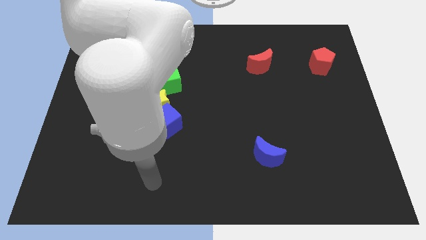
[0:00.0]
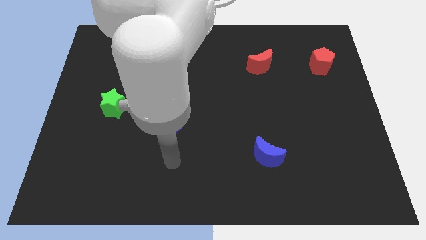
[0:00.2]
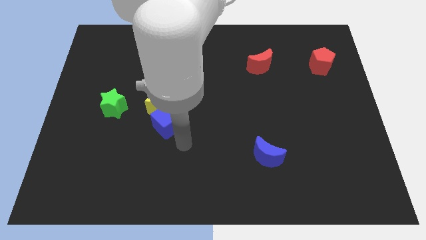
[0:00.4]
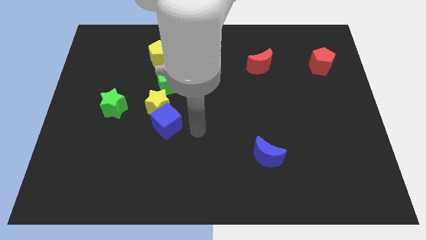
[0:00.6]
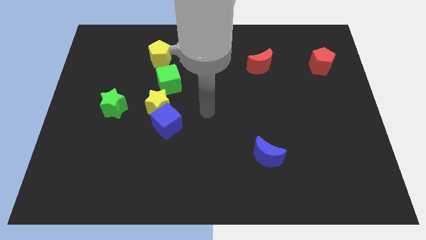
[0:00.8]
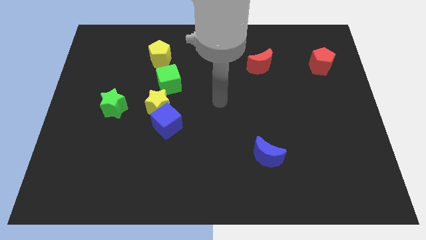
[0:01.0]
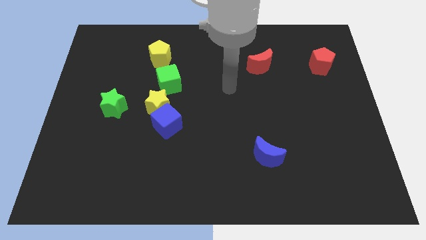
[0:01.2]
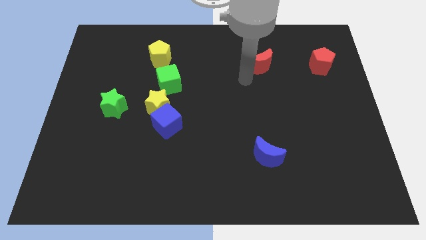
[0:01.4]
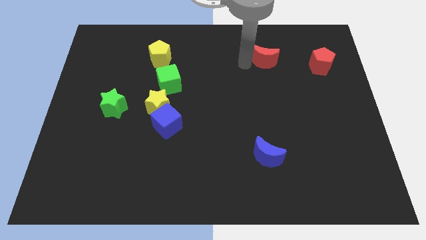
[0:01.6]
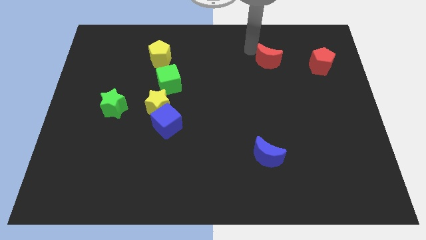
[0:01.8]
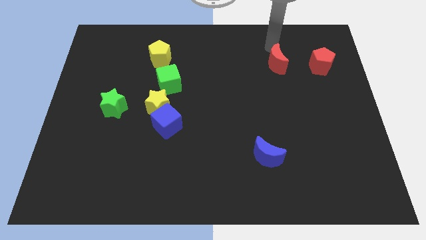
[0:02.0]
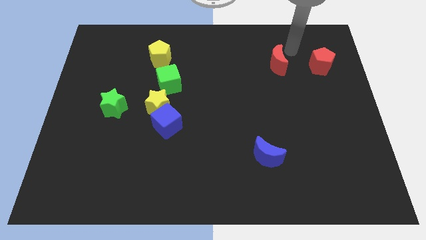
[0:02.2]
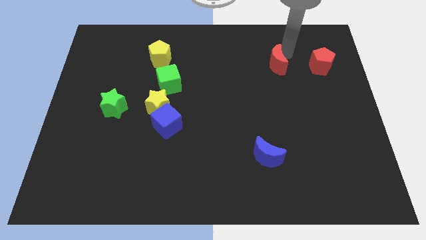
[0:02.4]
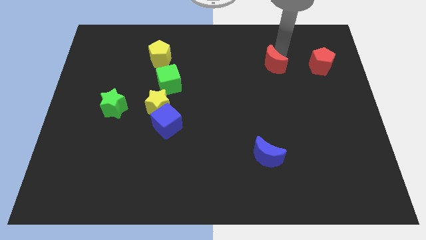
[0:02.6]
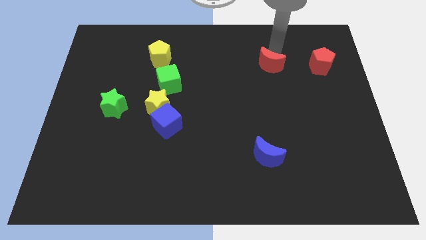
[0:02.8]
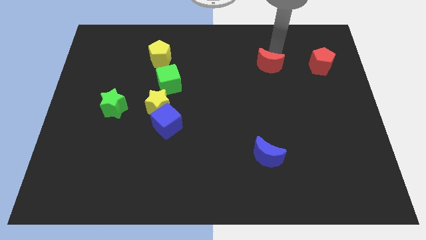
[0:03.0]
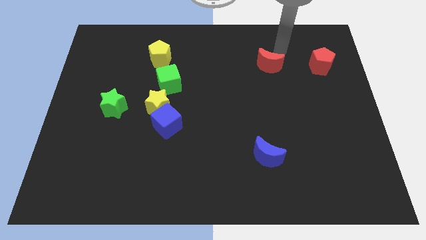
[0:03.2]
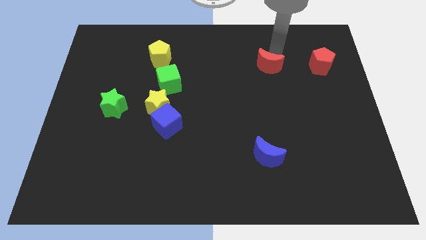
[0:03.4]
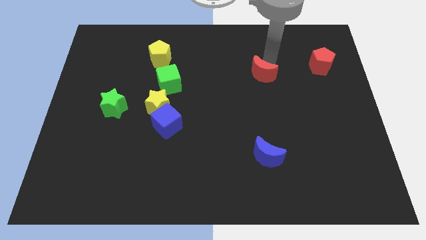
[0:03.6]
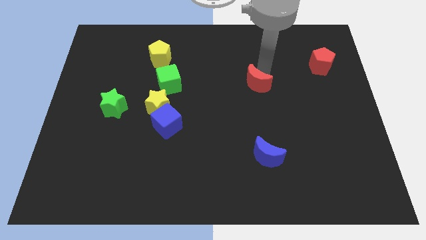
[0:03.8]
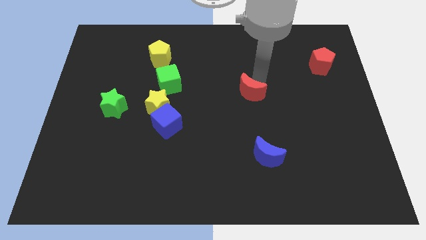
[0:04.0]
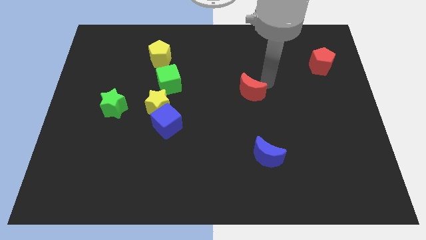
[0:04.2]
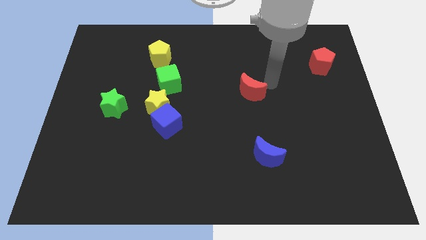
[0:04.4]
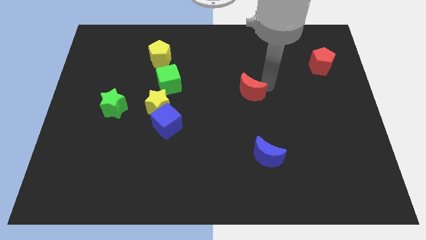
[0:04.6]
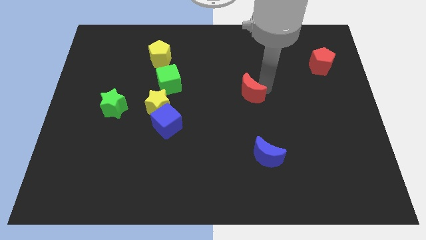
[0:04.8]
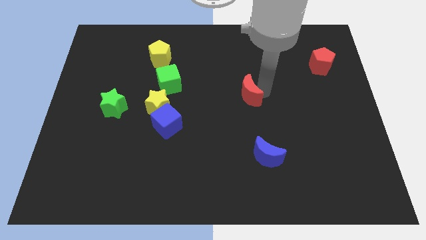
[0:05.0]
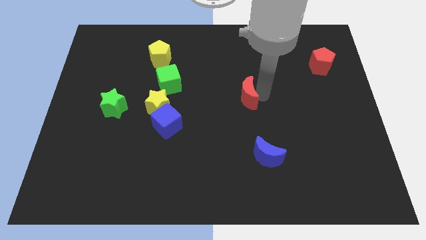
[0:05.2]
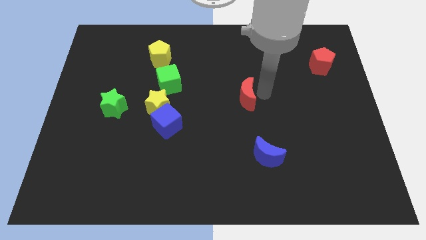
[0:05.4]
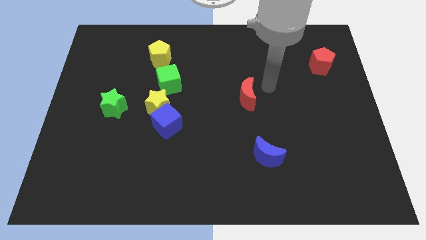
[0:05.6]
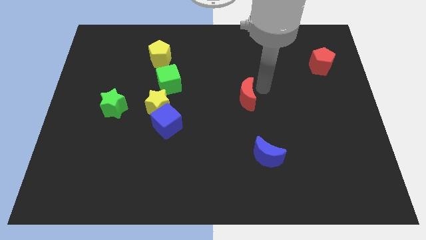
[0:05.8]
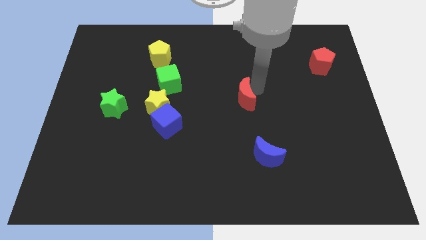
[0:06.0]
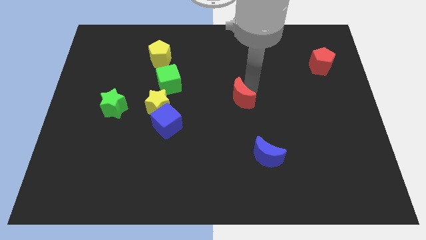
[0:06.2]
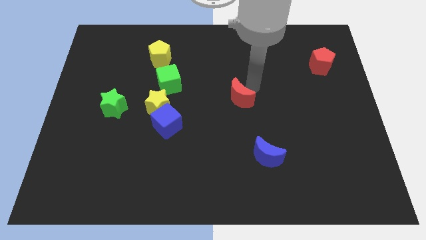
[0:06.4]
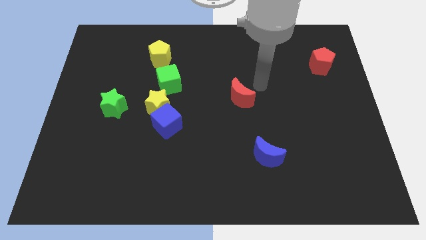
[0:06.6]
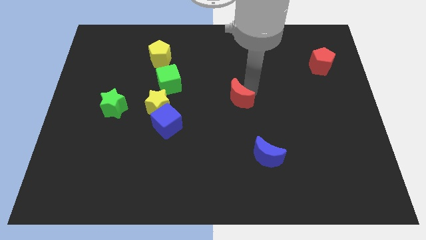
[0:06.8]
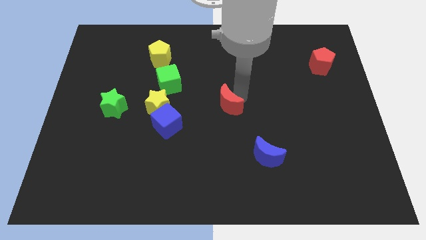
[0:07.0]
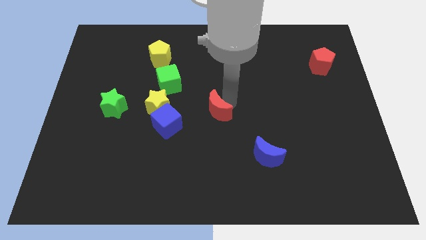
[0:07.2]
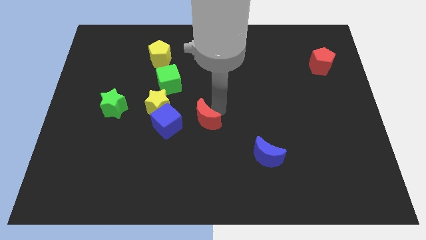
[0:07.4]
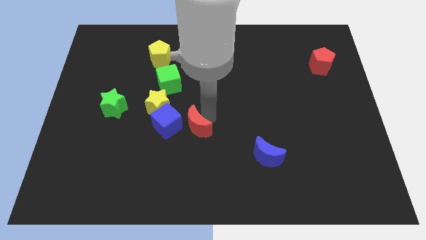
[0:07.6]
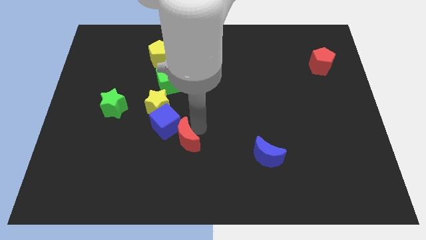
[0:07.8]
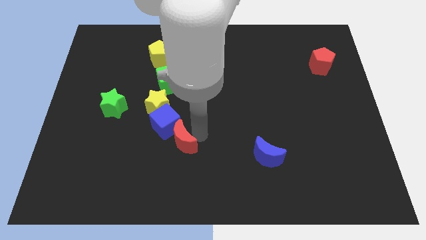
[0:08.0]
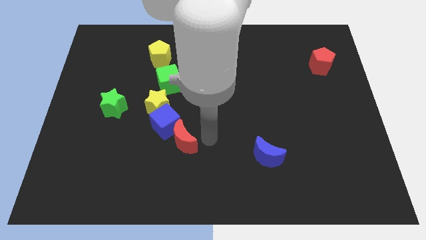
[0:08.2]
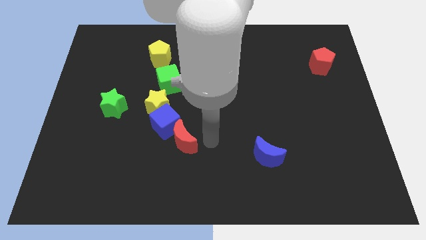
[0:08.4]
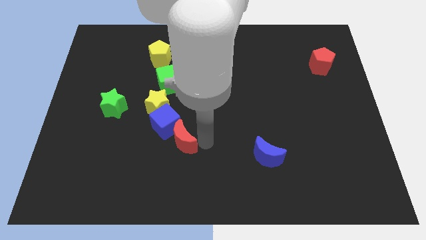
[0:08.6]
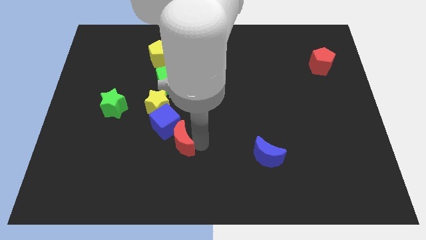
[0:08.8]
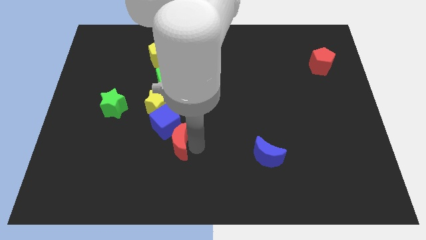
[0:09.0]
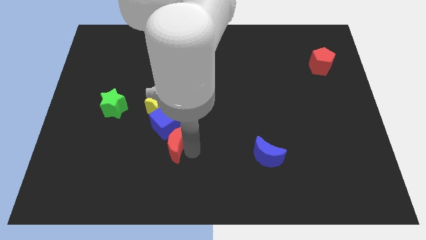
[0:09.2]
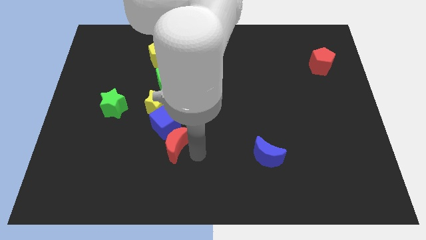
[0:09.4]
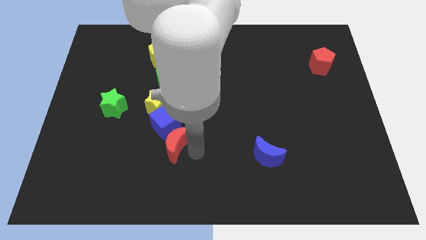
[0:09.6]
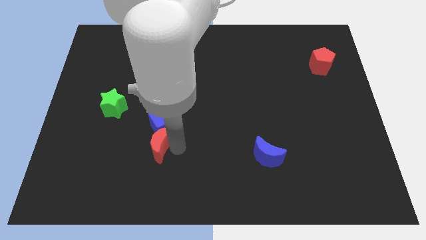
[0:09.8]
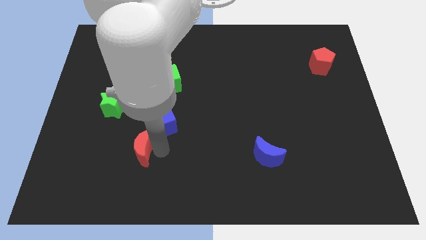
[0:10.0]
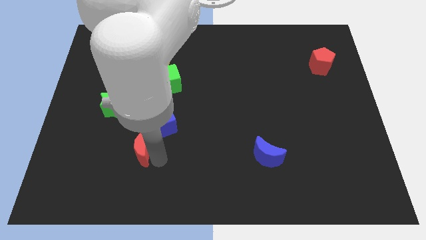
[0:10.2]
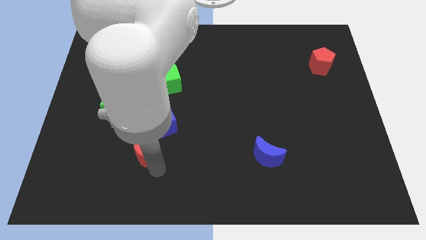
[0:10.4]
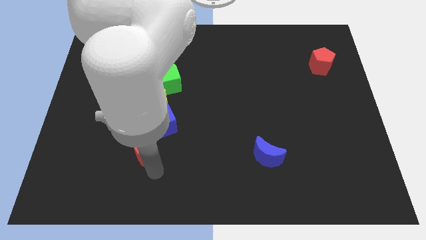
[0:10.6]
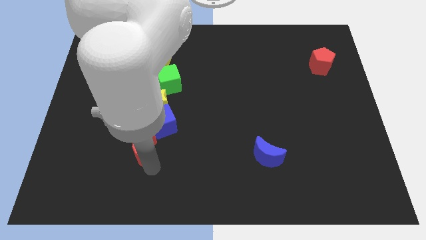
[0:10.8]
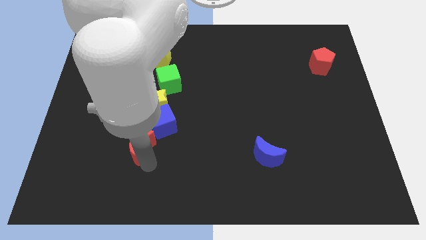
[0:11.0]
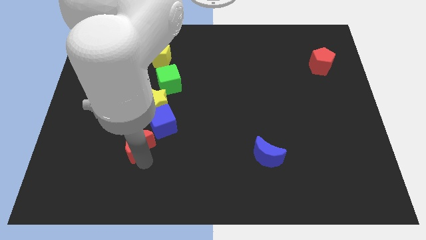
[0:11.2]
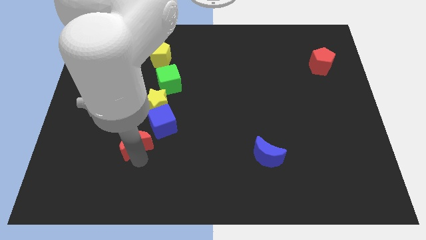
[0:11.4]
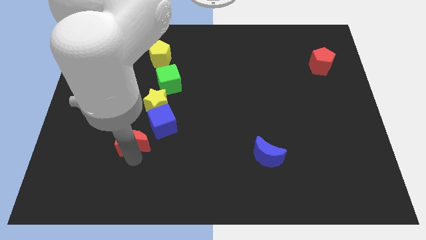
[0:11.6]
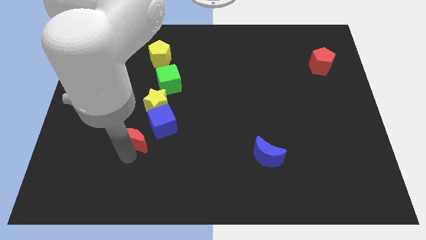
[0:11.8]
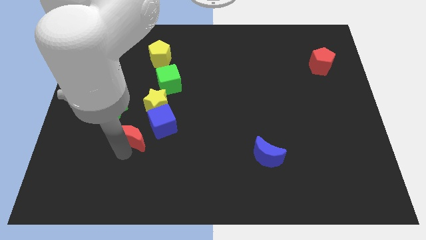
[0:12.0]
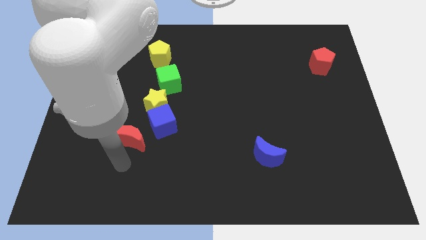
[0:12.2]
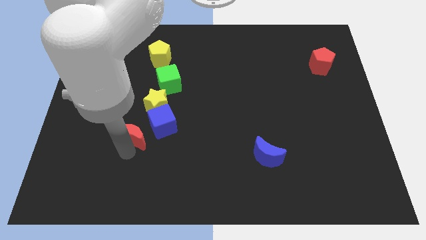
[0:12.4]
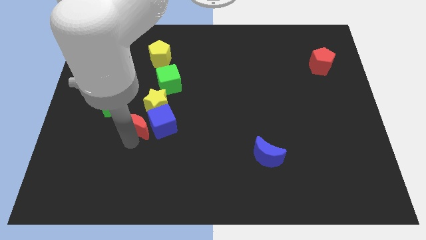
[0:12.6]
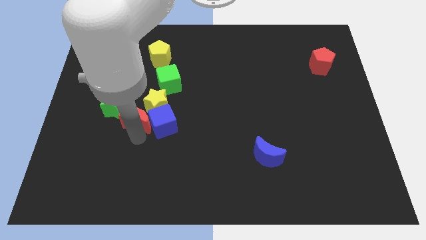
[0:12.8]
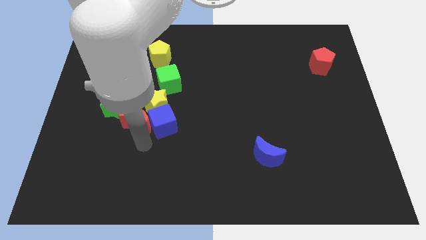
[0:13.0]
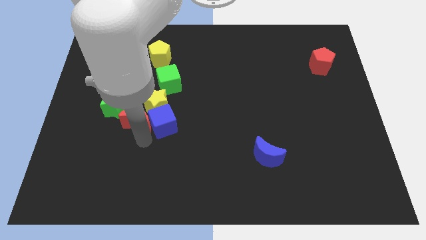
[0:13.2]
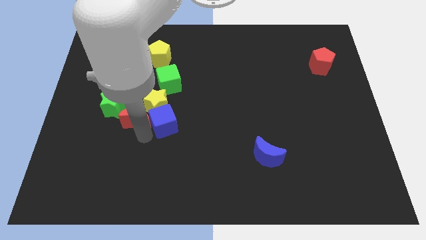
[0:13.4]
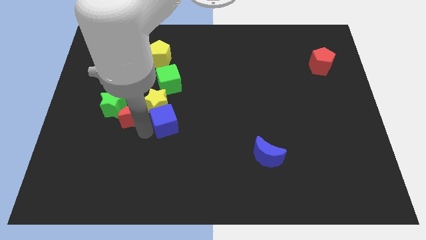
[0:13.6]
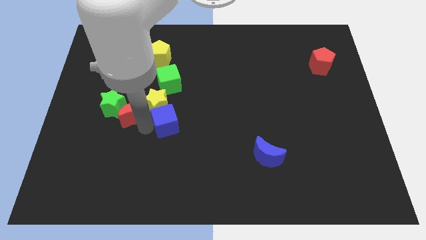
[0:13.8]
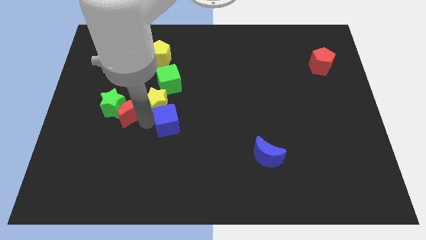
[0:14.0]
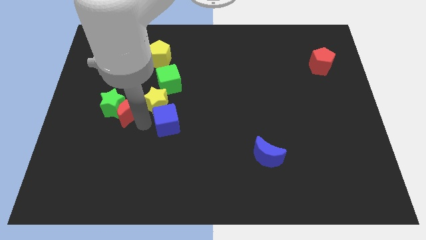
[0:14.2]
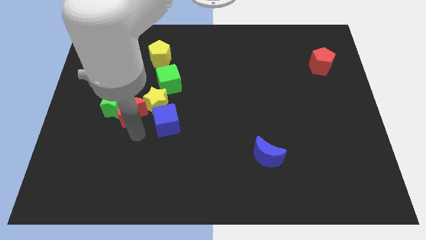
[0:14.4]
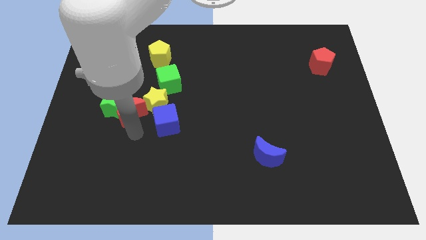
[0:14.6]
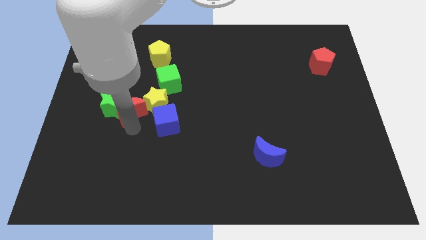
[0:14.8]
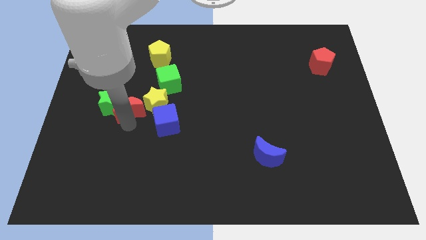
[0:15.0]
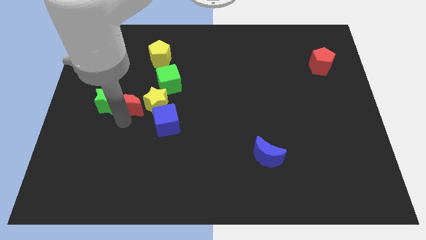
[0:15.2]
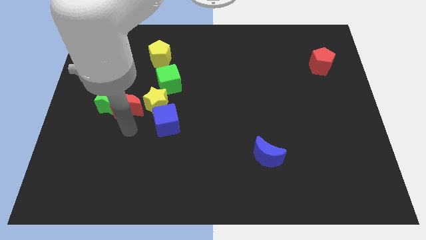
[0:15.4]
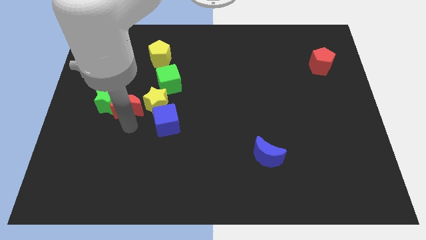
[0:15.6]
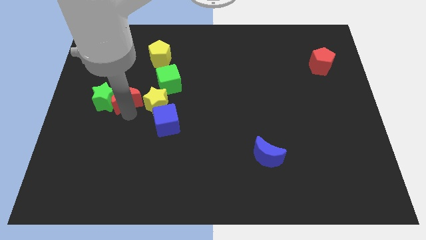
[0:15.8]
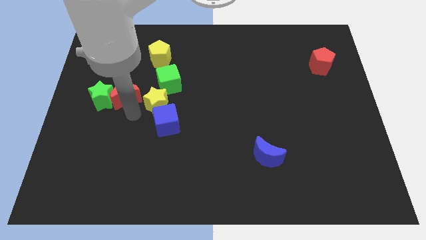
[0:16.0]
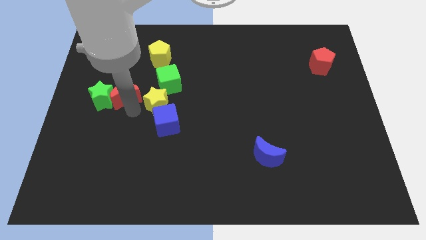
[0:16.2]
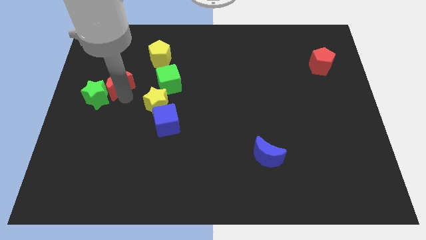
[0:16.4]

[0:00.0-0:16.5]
put the red moon to the top side of the green star
